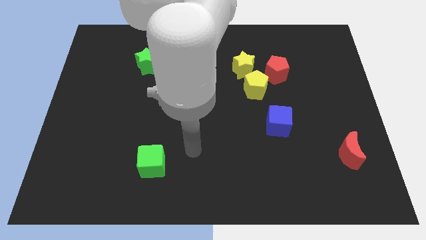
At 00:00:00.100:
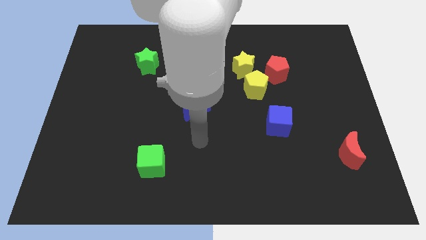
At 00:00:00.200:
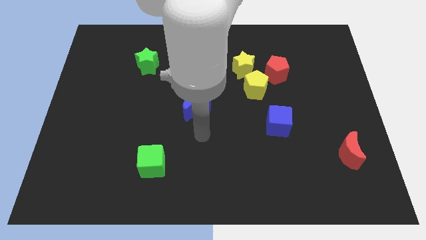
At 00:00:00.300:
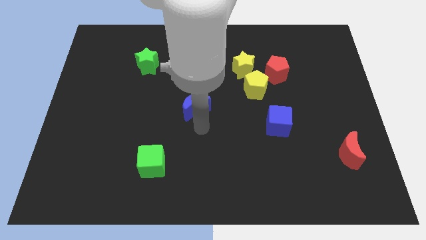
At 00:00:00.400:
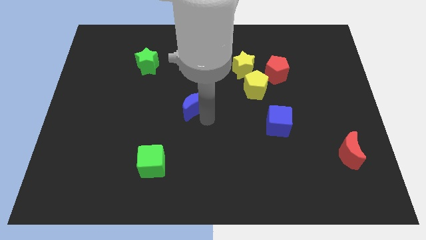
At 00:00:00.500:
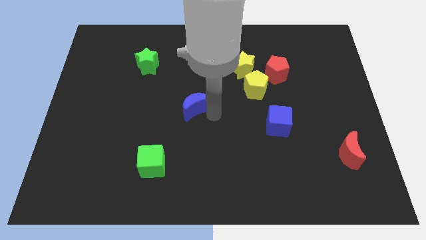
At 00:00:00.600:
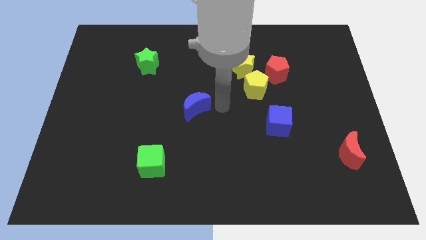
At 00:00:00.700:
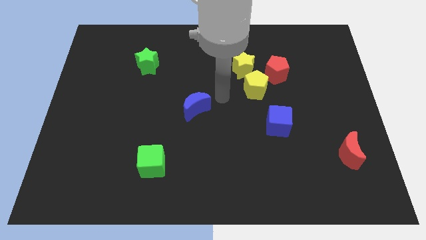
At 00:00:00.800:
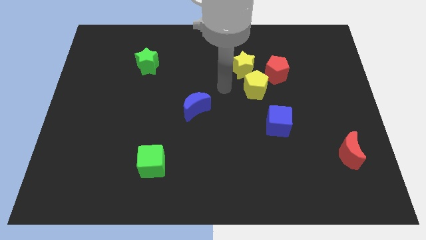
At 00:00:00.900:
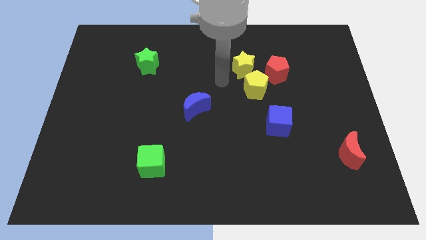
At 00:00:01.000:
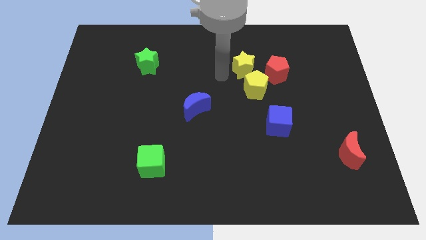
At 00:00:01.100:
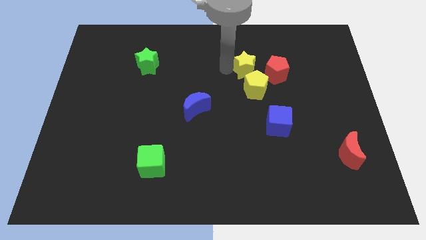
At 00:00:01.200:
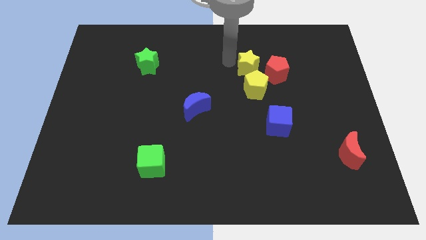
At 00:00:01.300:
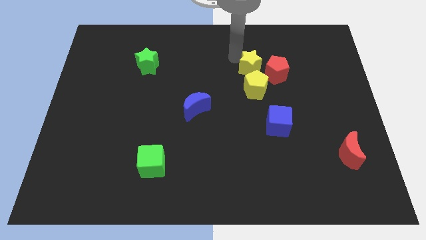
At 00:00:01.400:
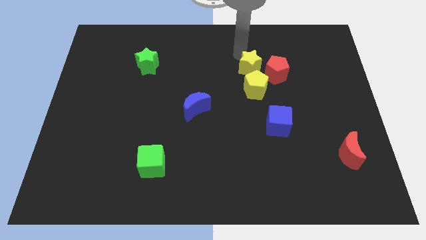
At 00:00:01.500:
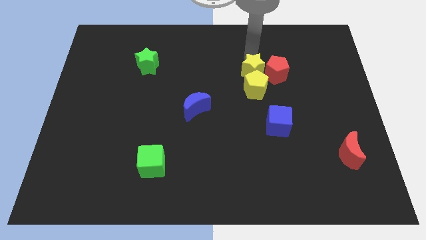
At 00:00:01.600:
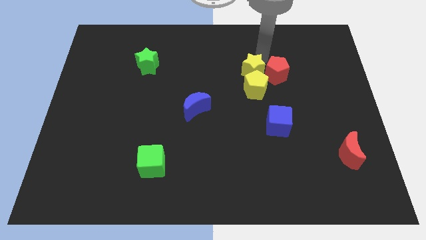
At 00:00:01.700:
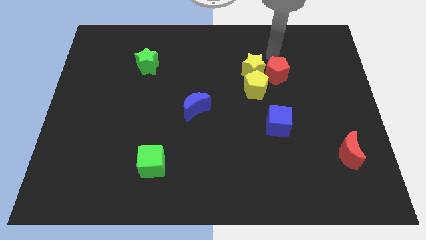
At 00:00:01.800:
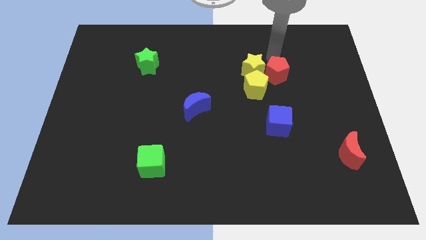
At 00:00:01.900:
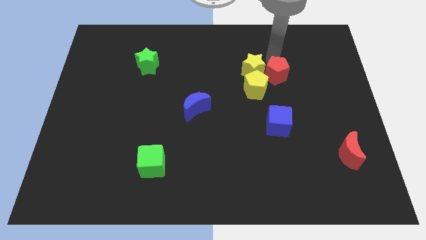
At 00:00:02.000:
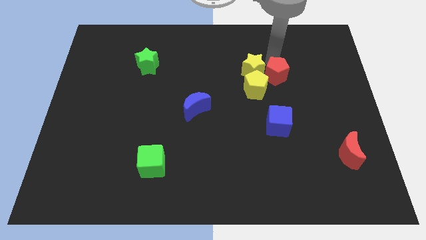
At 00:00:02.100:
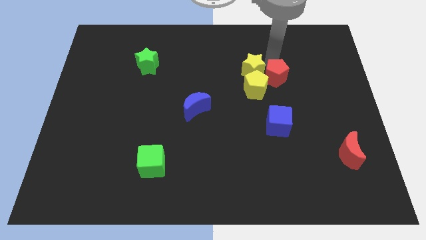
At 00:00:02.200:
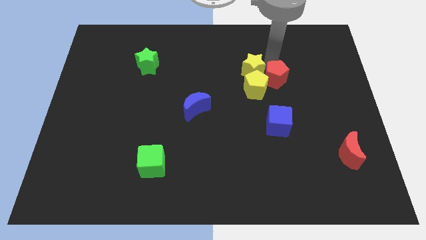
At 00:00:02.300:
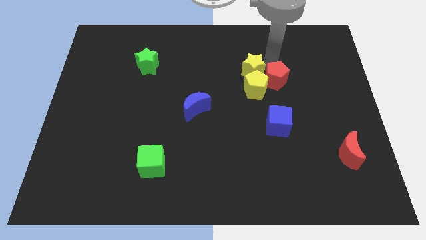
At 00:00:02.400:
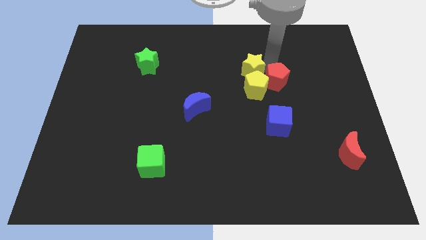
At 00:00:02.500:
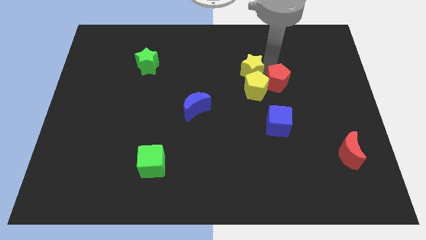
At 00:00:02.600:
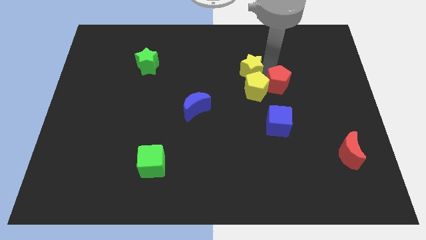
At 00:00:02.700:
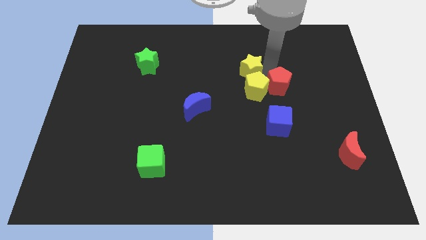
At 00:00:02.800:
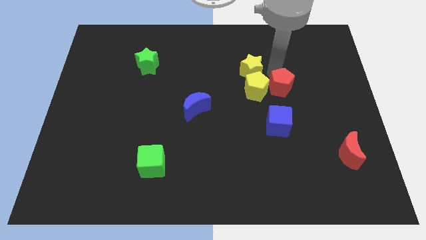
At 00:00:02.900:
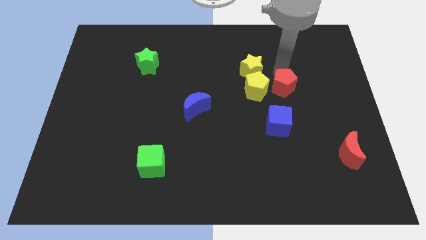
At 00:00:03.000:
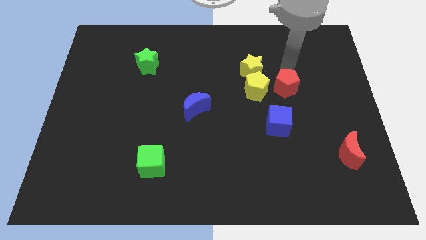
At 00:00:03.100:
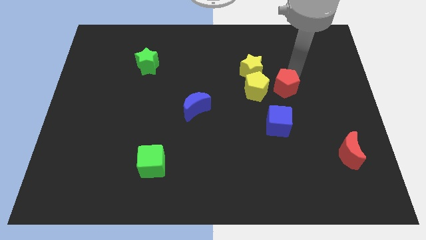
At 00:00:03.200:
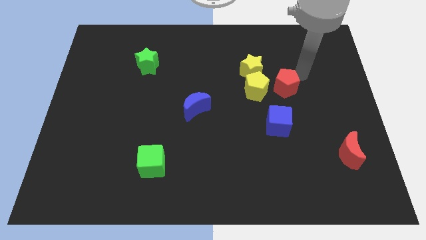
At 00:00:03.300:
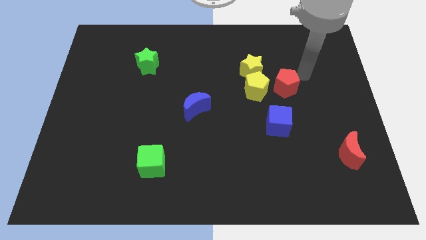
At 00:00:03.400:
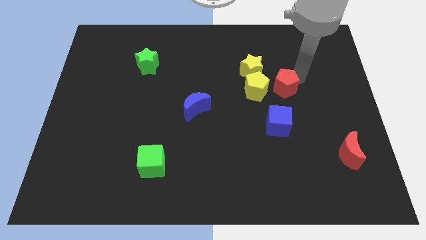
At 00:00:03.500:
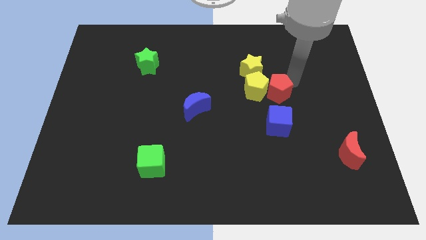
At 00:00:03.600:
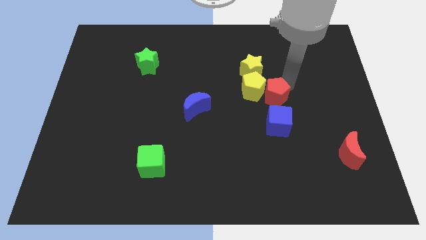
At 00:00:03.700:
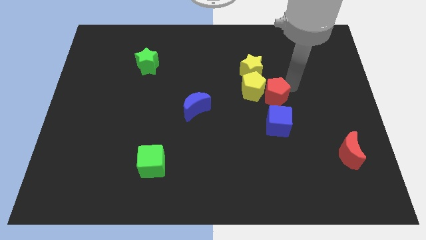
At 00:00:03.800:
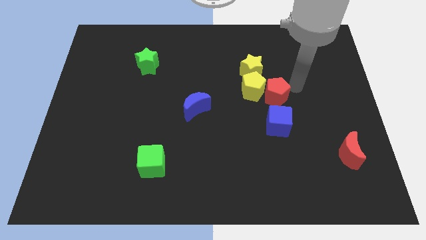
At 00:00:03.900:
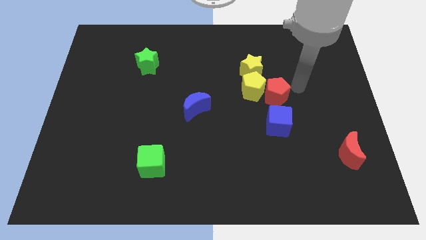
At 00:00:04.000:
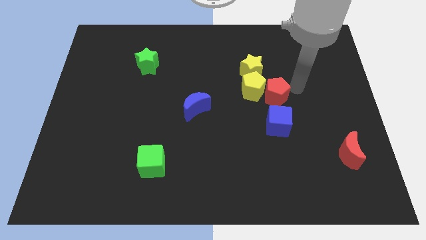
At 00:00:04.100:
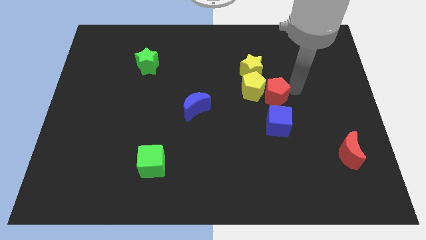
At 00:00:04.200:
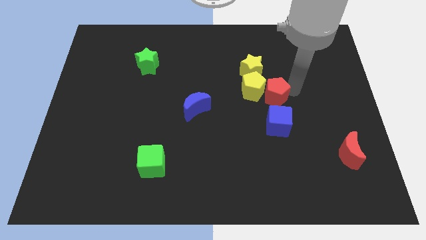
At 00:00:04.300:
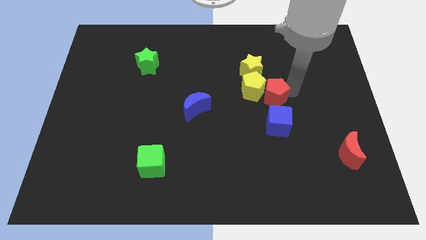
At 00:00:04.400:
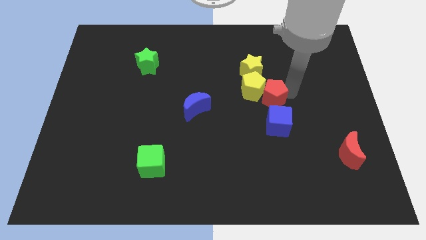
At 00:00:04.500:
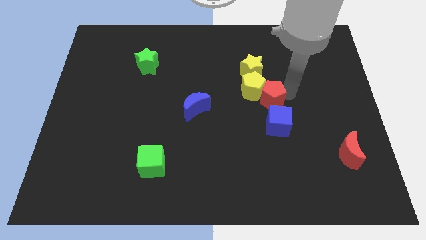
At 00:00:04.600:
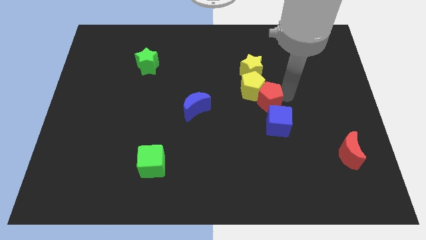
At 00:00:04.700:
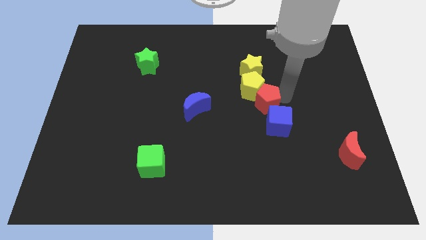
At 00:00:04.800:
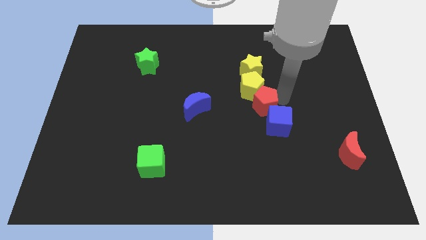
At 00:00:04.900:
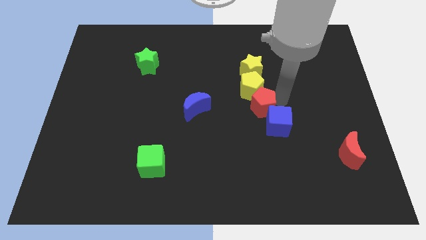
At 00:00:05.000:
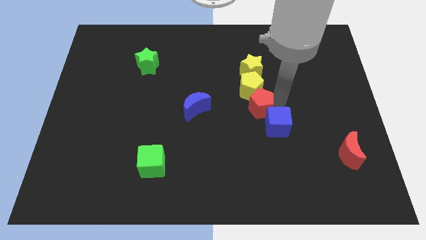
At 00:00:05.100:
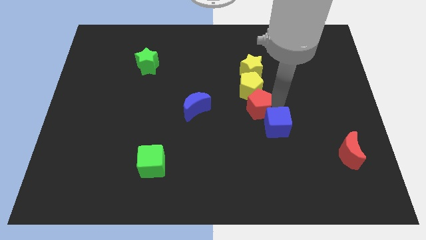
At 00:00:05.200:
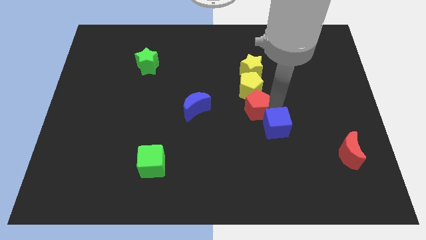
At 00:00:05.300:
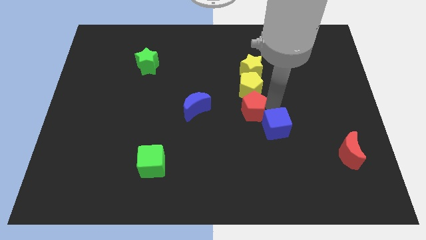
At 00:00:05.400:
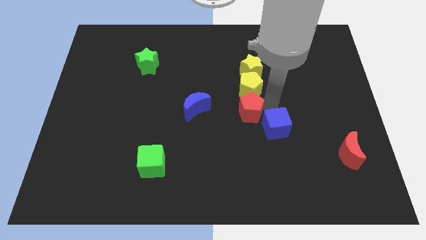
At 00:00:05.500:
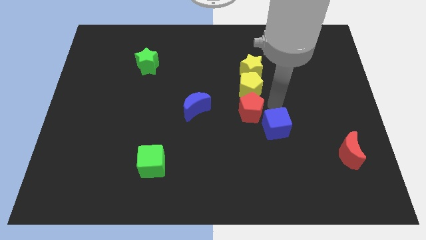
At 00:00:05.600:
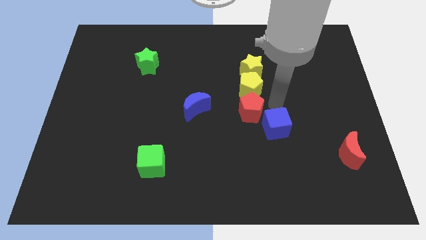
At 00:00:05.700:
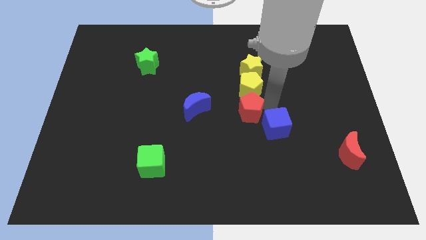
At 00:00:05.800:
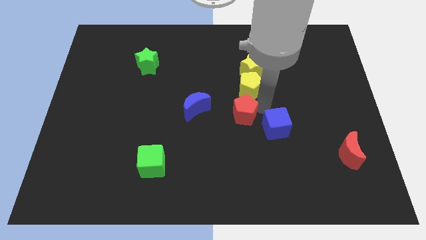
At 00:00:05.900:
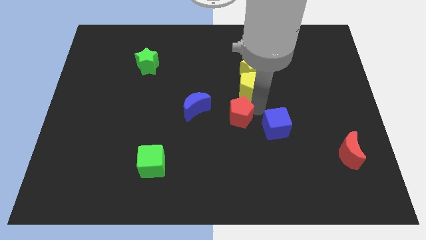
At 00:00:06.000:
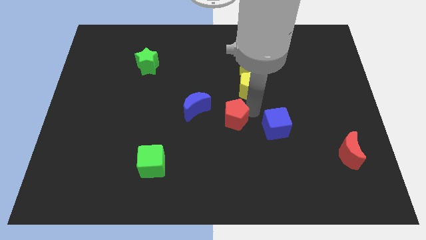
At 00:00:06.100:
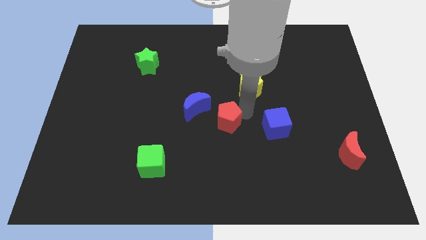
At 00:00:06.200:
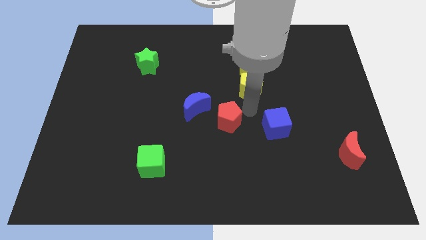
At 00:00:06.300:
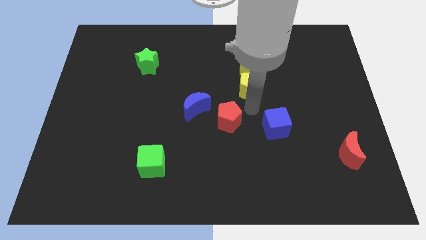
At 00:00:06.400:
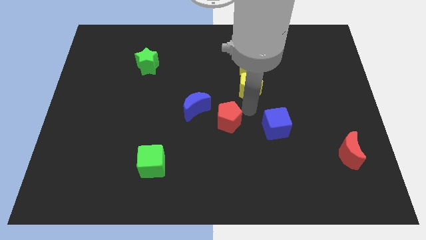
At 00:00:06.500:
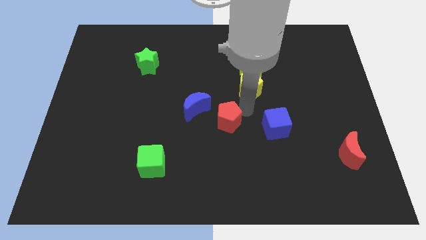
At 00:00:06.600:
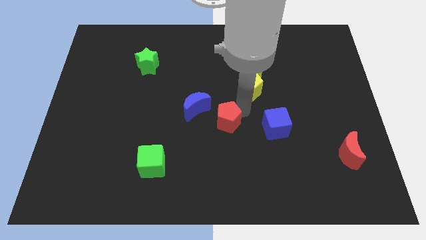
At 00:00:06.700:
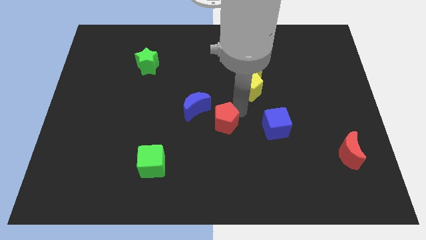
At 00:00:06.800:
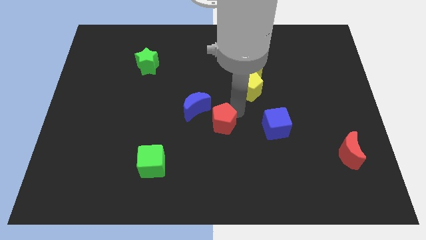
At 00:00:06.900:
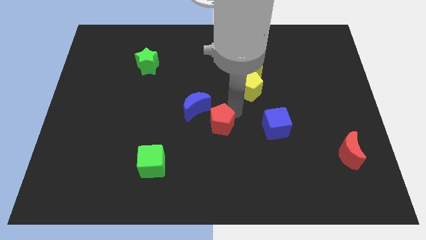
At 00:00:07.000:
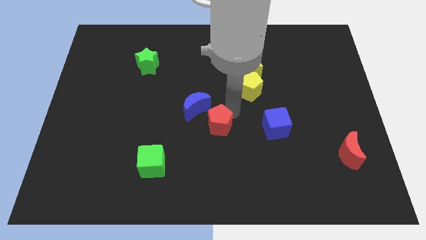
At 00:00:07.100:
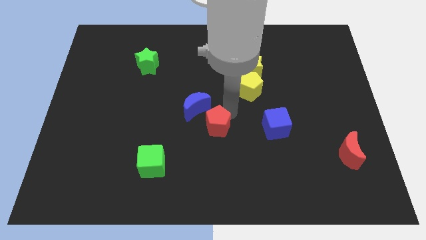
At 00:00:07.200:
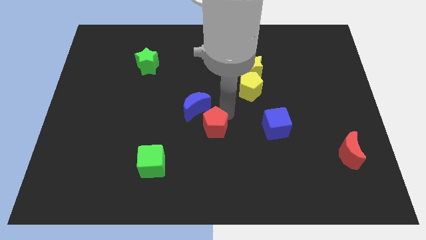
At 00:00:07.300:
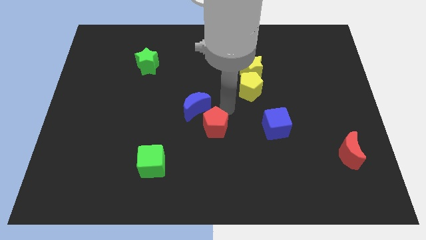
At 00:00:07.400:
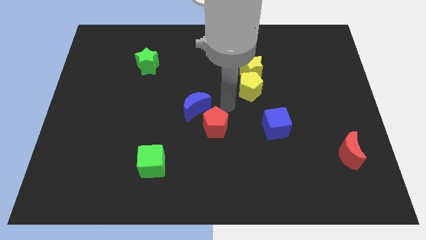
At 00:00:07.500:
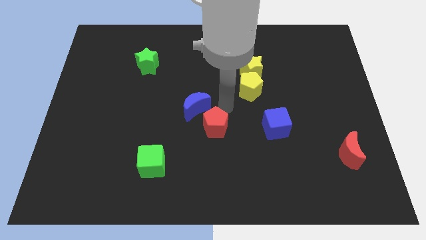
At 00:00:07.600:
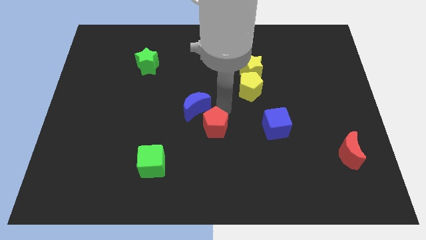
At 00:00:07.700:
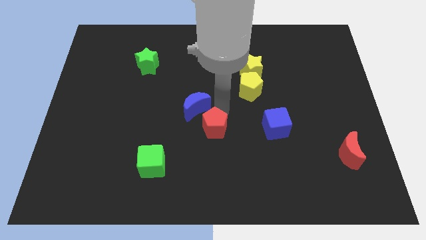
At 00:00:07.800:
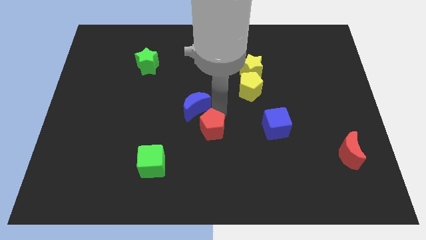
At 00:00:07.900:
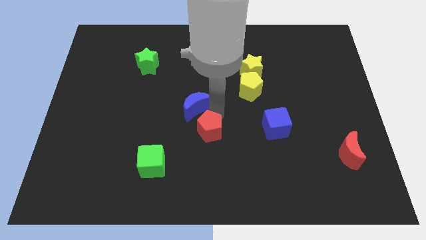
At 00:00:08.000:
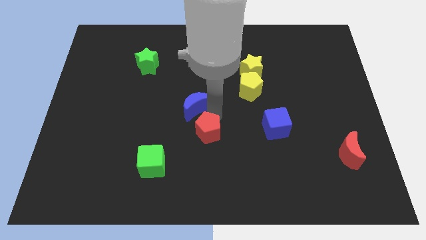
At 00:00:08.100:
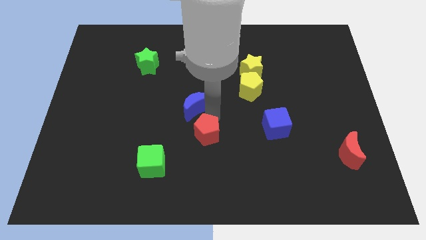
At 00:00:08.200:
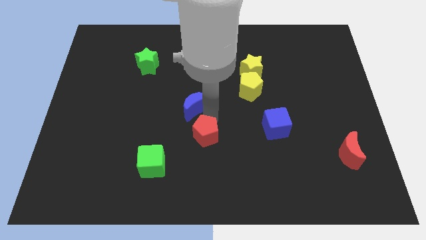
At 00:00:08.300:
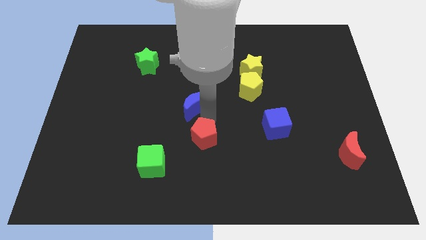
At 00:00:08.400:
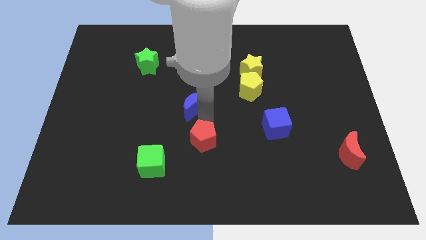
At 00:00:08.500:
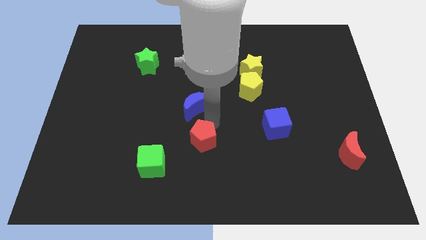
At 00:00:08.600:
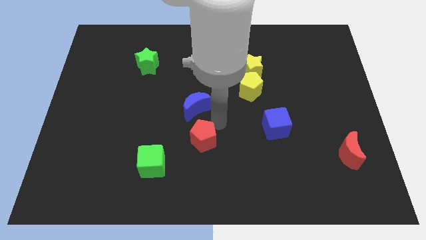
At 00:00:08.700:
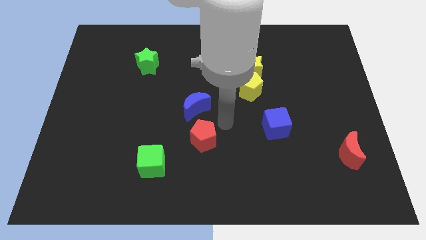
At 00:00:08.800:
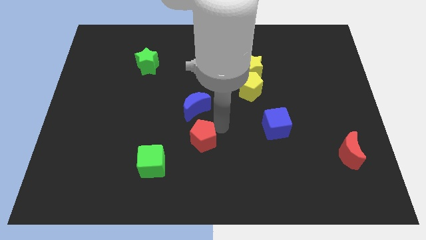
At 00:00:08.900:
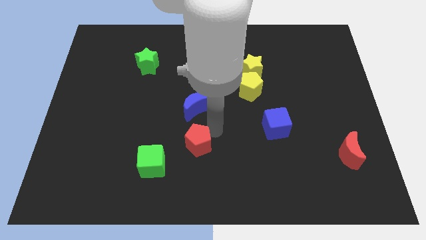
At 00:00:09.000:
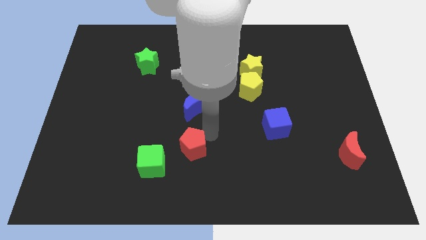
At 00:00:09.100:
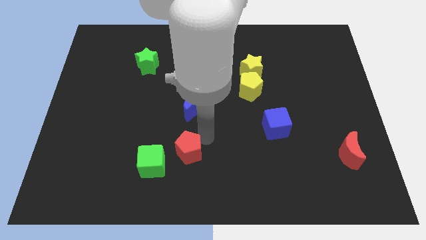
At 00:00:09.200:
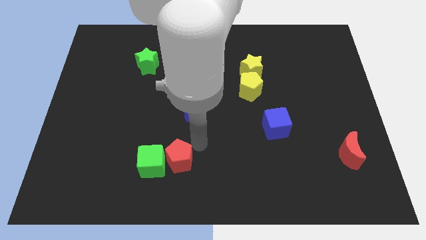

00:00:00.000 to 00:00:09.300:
slide the red pentagon to the green cube
